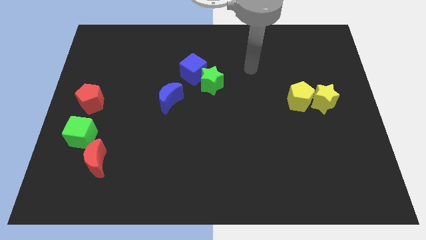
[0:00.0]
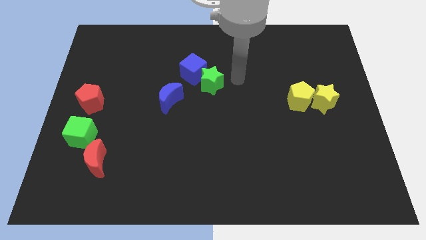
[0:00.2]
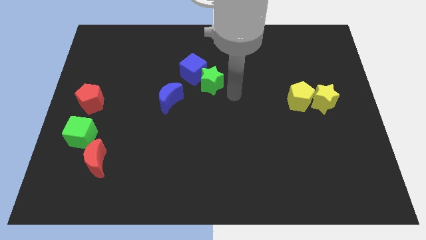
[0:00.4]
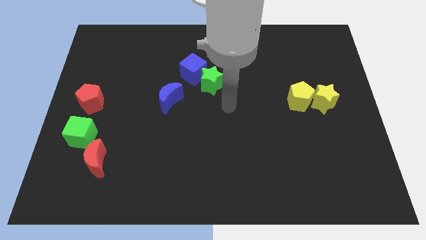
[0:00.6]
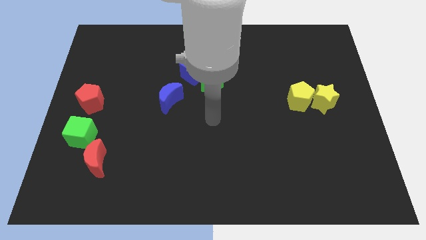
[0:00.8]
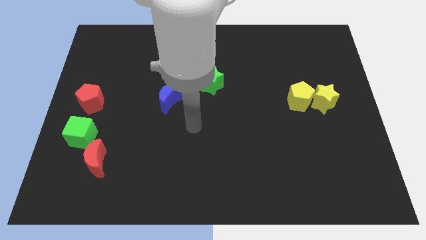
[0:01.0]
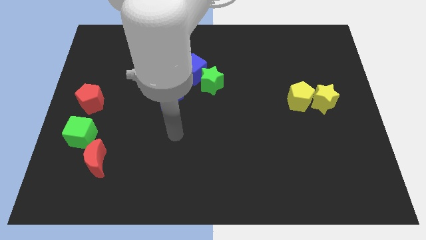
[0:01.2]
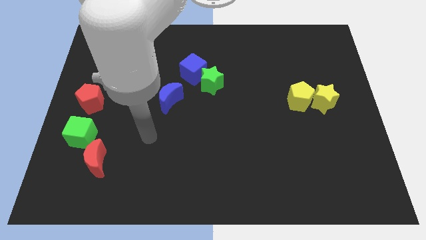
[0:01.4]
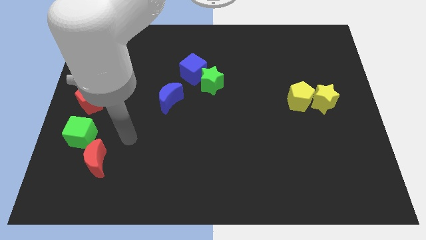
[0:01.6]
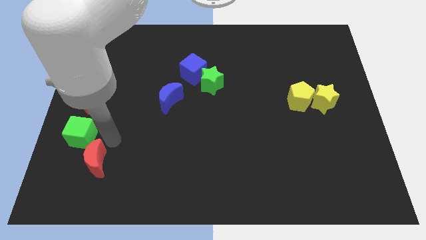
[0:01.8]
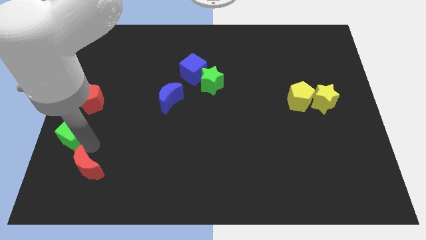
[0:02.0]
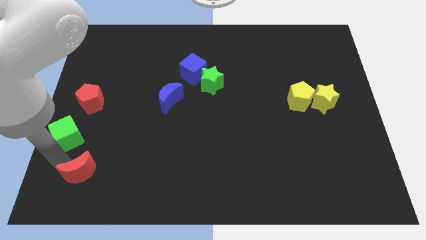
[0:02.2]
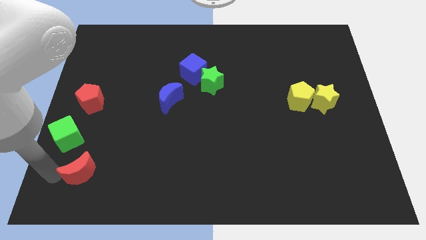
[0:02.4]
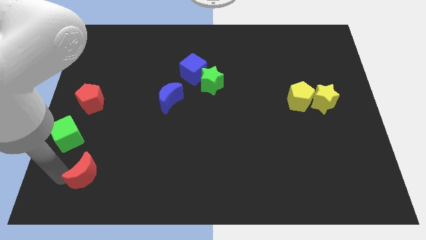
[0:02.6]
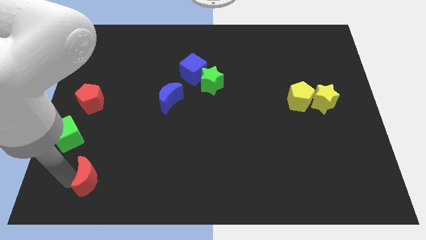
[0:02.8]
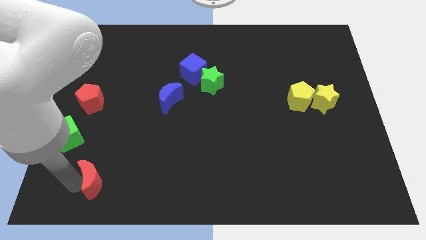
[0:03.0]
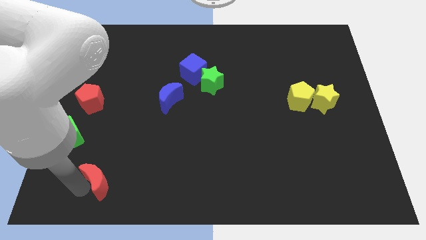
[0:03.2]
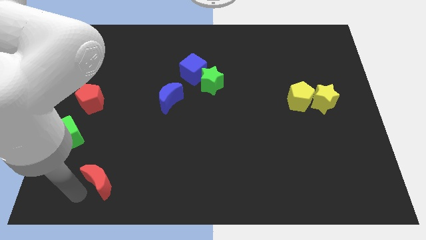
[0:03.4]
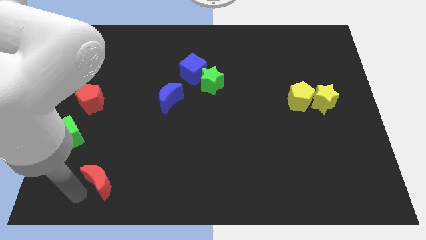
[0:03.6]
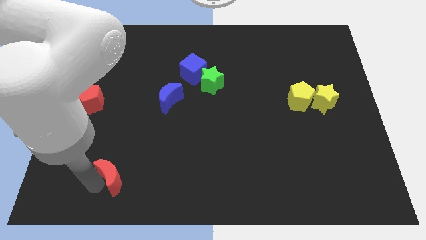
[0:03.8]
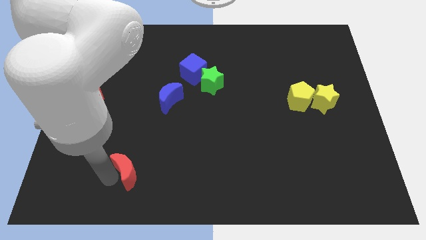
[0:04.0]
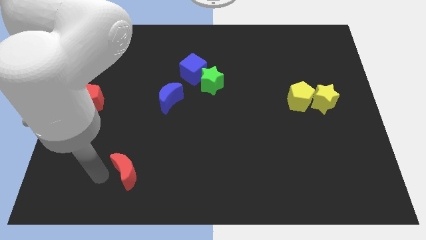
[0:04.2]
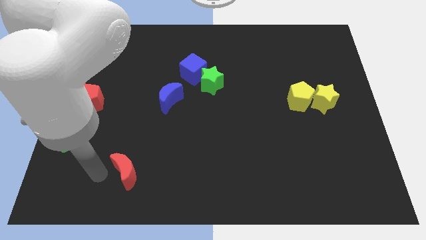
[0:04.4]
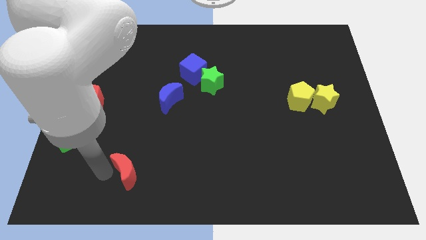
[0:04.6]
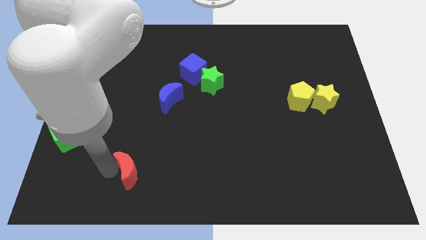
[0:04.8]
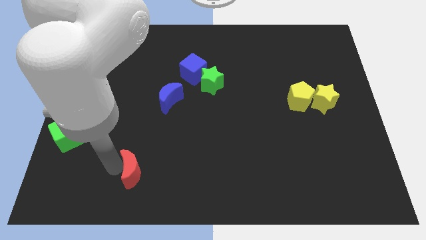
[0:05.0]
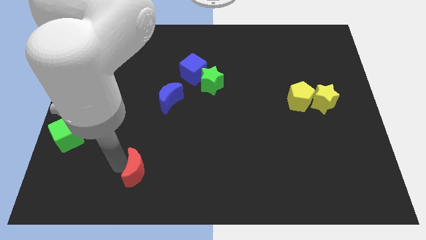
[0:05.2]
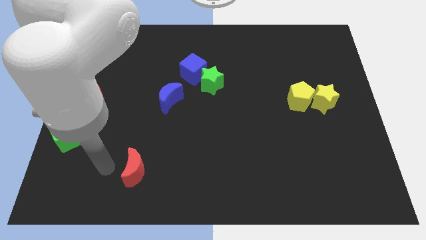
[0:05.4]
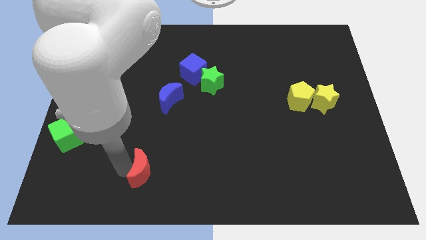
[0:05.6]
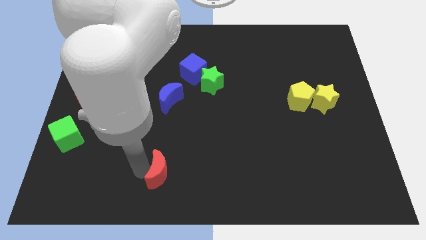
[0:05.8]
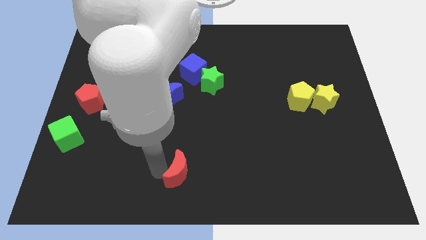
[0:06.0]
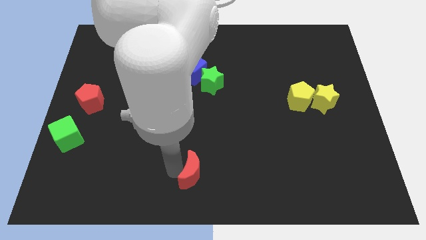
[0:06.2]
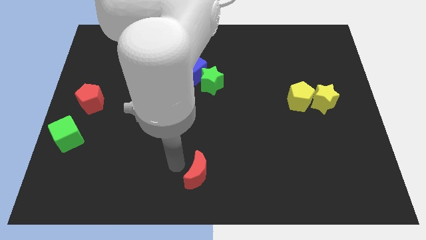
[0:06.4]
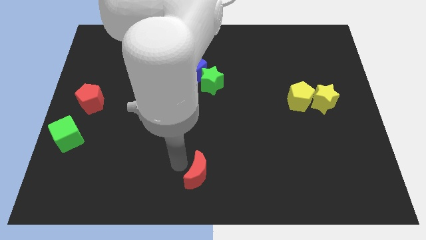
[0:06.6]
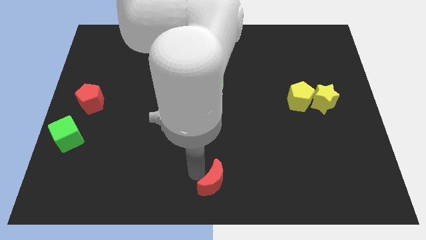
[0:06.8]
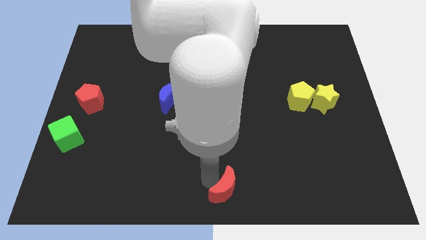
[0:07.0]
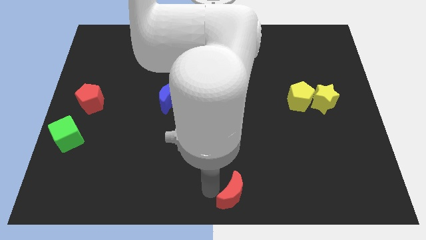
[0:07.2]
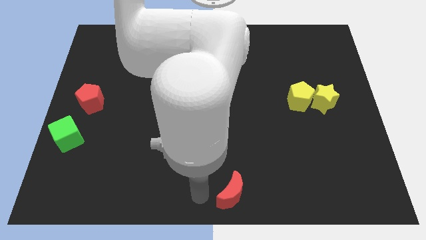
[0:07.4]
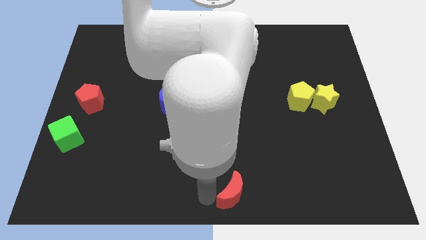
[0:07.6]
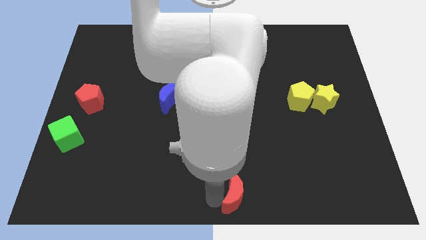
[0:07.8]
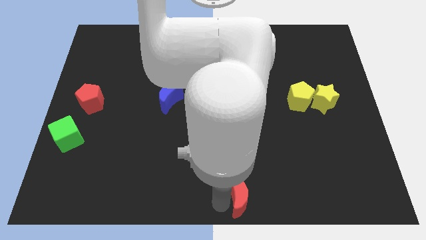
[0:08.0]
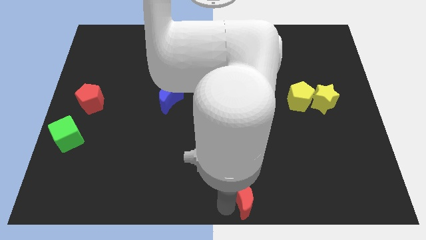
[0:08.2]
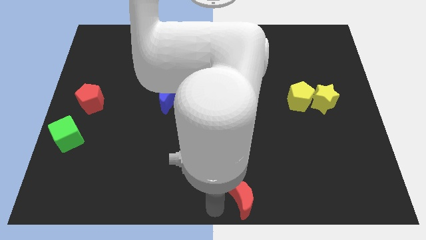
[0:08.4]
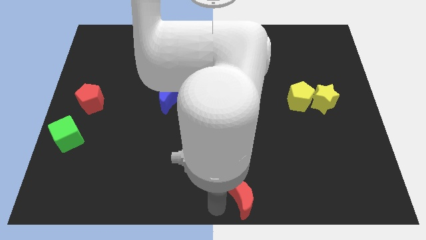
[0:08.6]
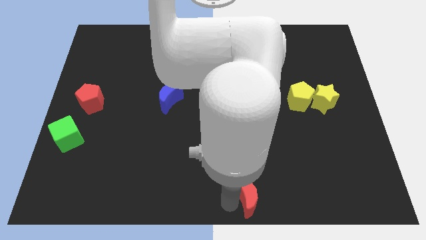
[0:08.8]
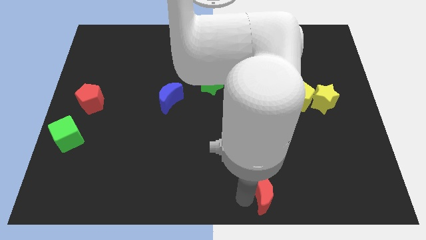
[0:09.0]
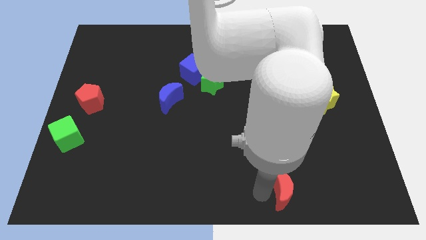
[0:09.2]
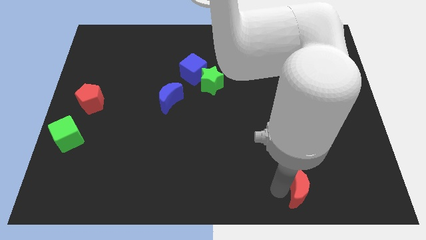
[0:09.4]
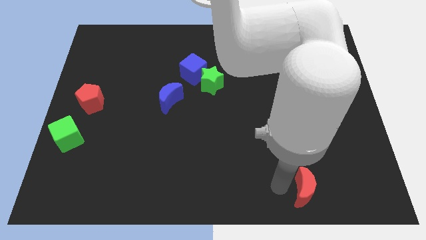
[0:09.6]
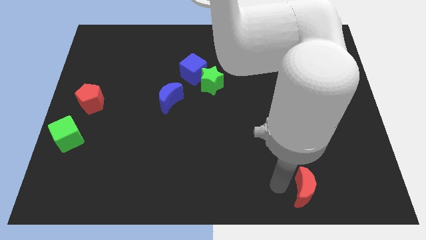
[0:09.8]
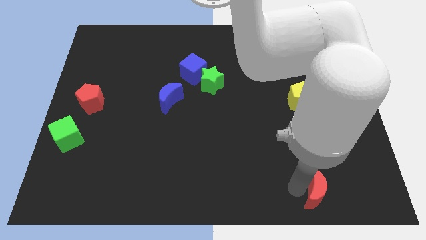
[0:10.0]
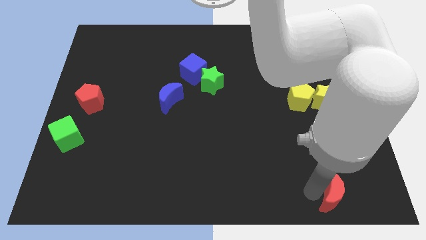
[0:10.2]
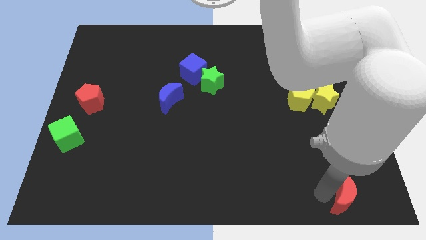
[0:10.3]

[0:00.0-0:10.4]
move the red moon to the bottom right of the board
